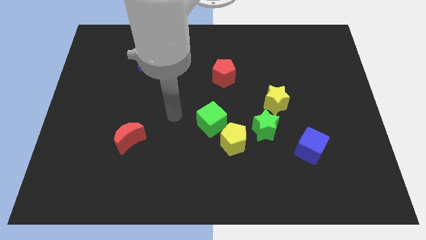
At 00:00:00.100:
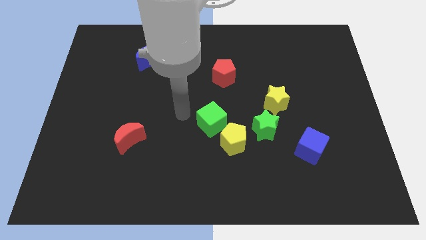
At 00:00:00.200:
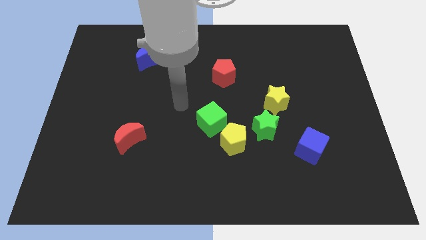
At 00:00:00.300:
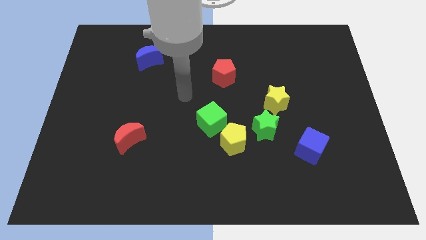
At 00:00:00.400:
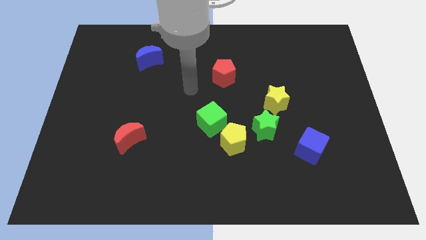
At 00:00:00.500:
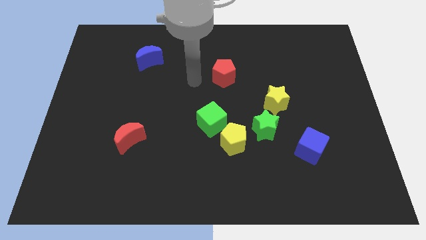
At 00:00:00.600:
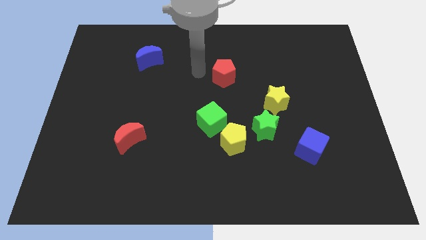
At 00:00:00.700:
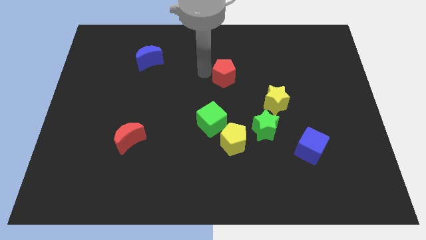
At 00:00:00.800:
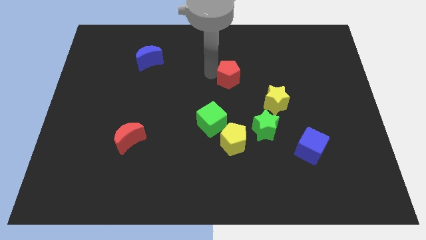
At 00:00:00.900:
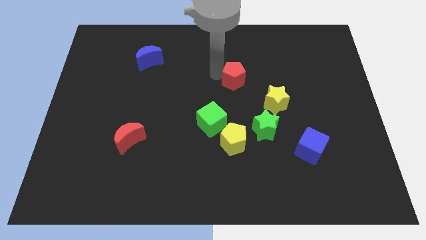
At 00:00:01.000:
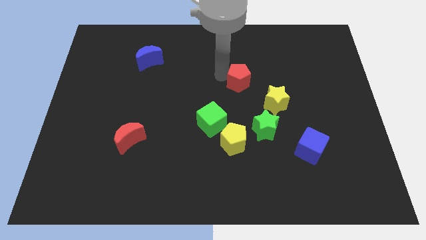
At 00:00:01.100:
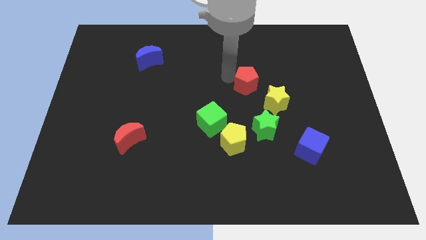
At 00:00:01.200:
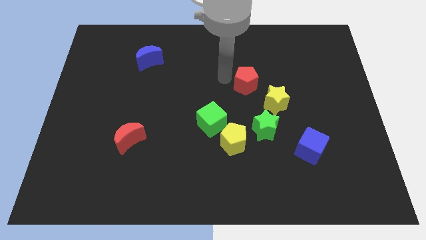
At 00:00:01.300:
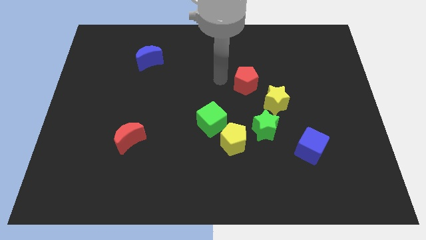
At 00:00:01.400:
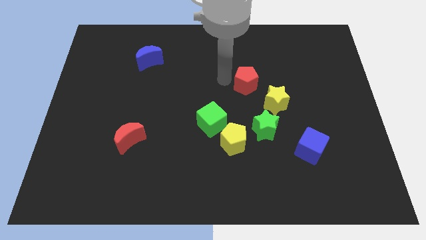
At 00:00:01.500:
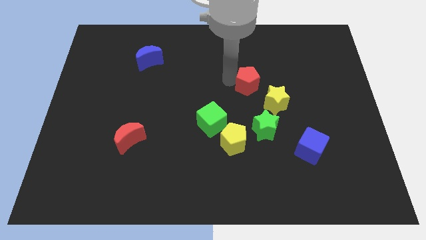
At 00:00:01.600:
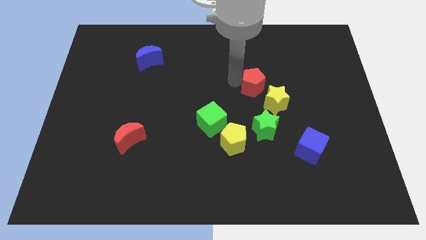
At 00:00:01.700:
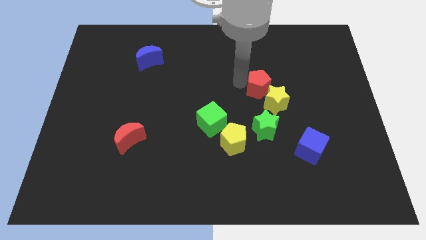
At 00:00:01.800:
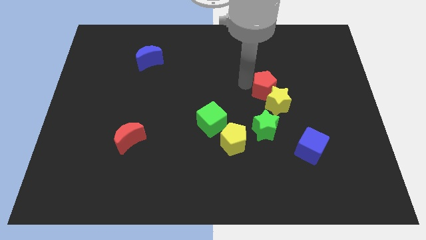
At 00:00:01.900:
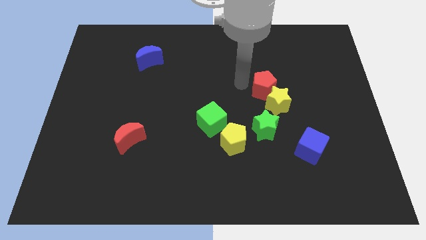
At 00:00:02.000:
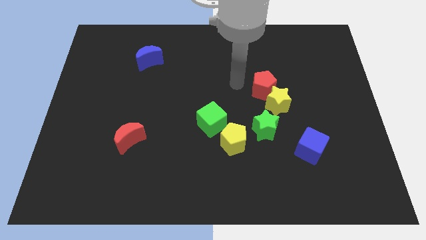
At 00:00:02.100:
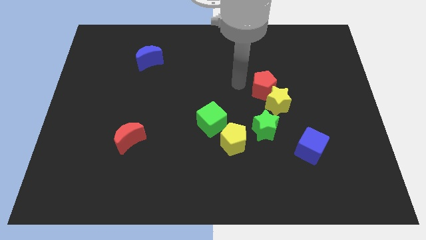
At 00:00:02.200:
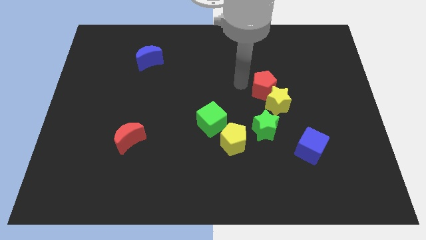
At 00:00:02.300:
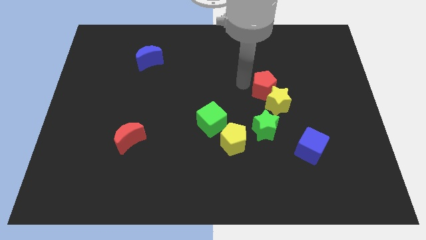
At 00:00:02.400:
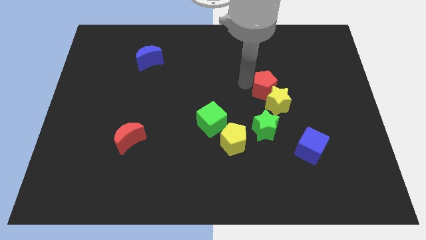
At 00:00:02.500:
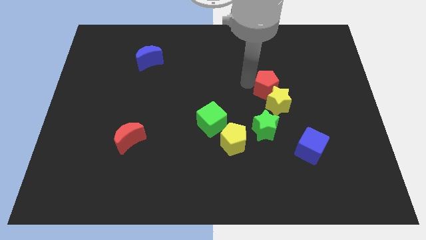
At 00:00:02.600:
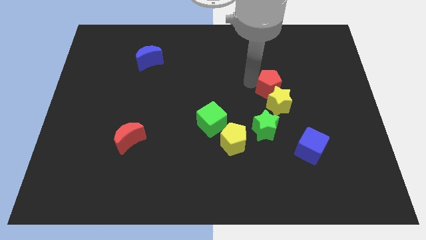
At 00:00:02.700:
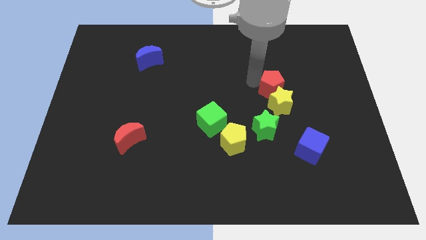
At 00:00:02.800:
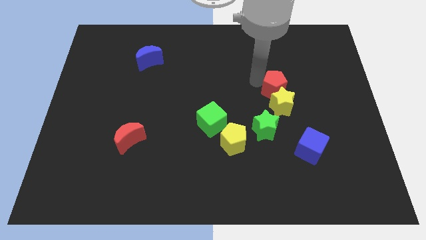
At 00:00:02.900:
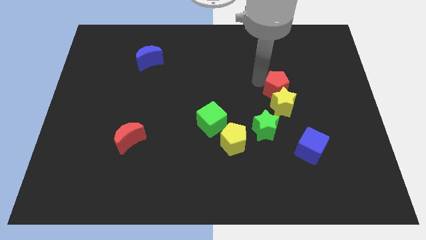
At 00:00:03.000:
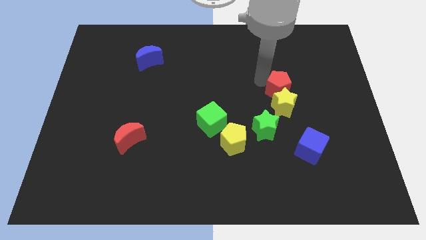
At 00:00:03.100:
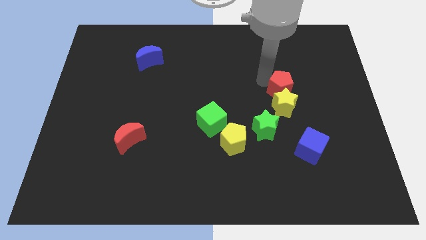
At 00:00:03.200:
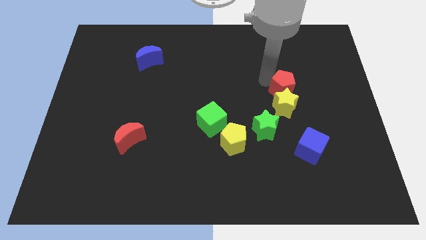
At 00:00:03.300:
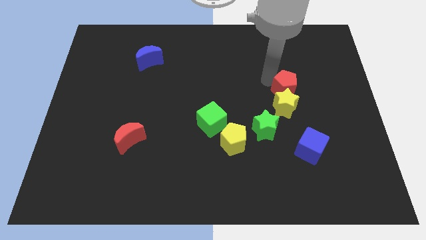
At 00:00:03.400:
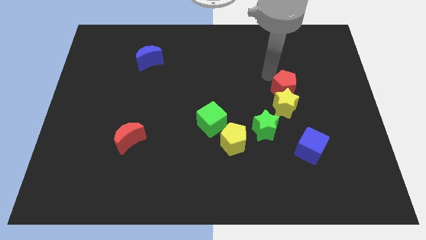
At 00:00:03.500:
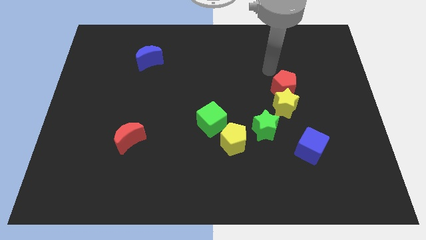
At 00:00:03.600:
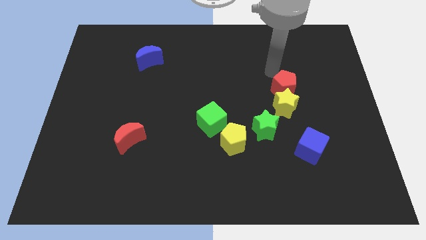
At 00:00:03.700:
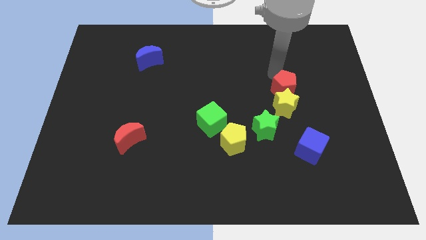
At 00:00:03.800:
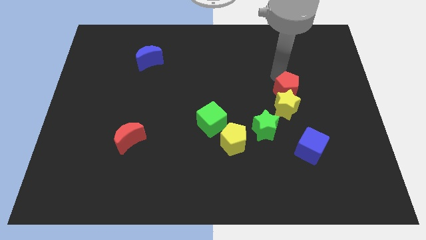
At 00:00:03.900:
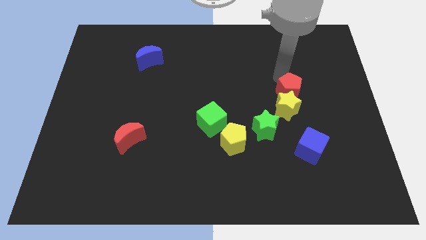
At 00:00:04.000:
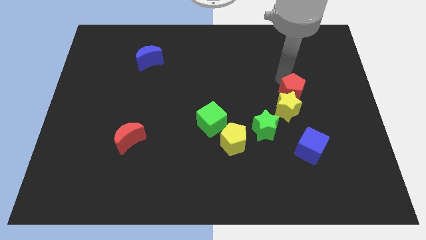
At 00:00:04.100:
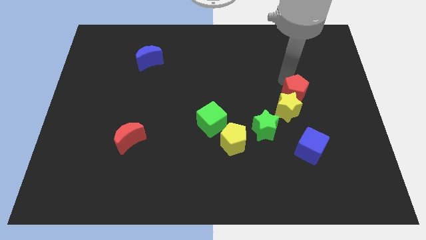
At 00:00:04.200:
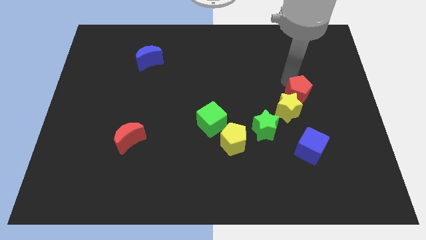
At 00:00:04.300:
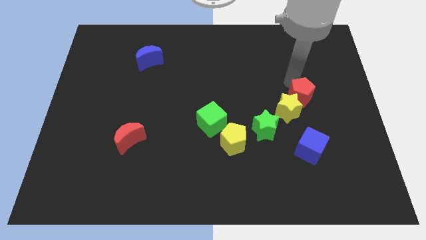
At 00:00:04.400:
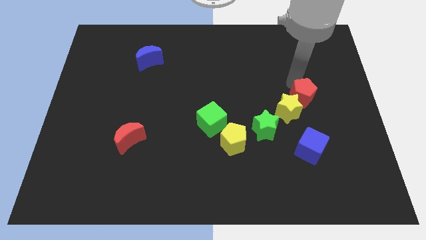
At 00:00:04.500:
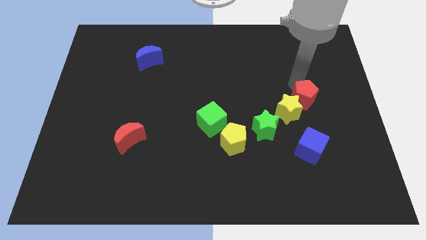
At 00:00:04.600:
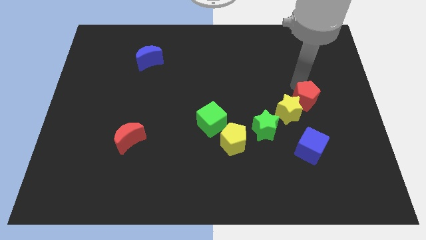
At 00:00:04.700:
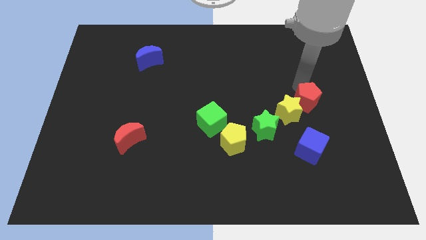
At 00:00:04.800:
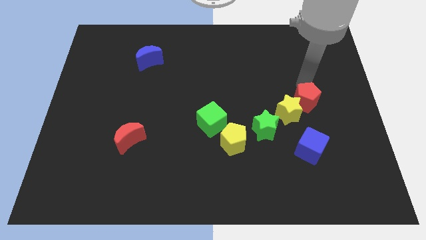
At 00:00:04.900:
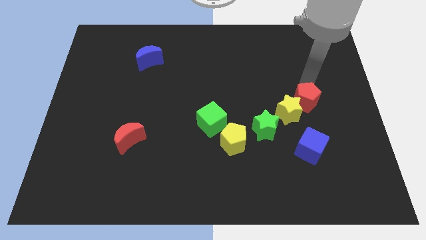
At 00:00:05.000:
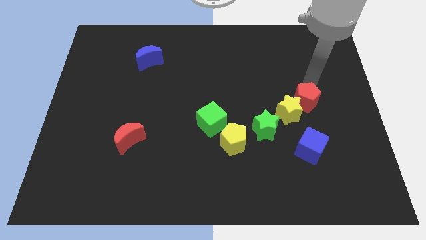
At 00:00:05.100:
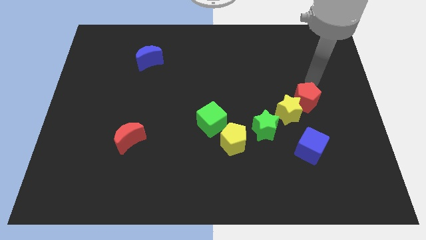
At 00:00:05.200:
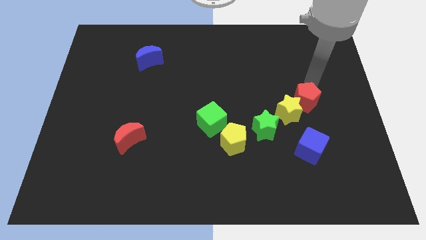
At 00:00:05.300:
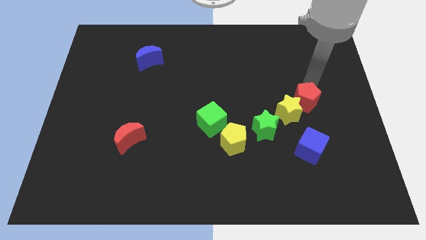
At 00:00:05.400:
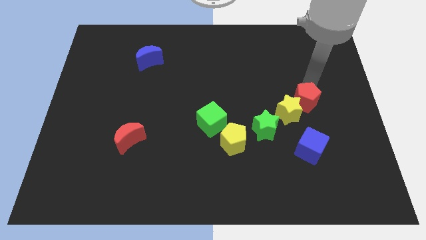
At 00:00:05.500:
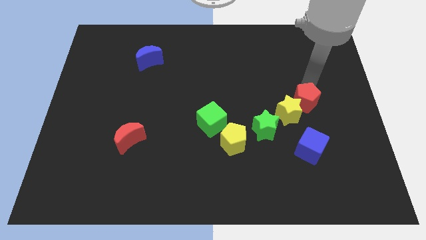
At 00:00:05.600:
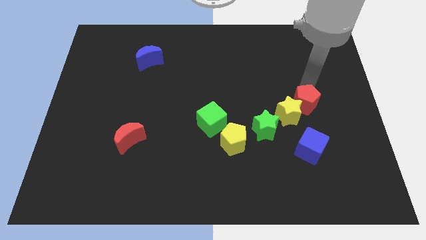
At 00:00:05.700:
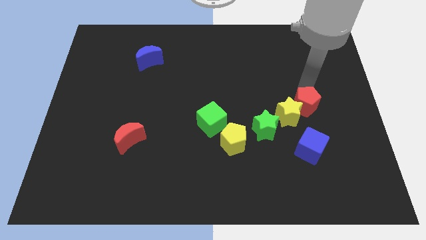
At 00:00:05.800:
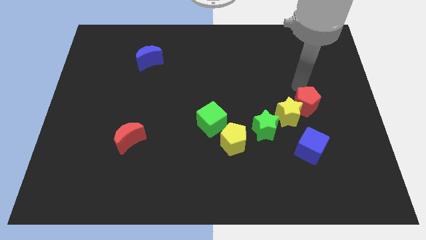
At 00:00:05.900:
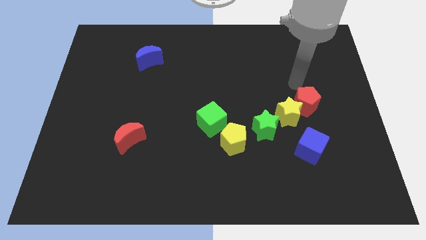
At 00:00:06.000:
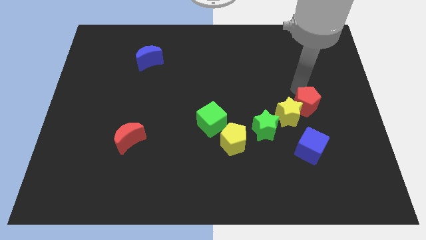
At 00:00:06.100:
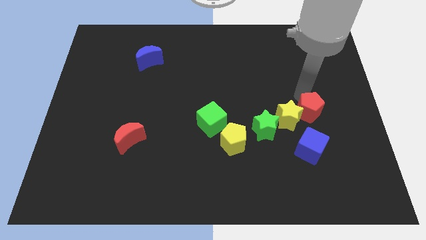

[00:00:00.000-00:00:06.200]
slide the red pentagon downwards and then right

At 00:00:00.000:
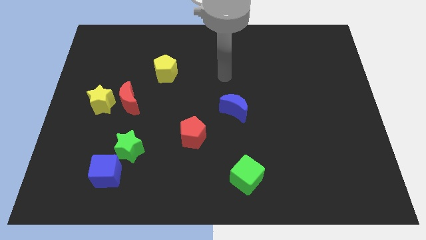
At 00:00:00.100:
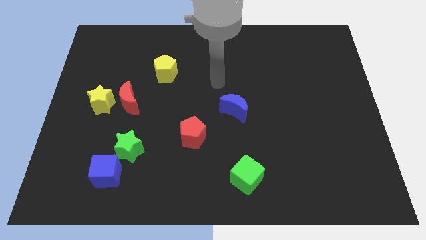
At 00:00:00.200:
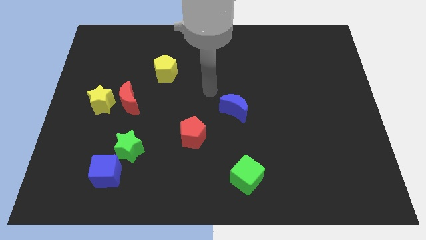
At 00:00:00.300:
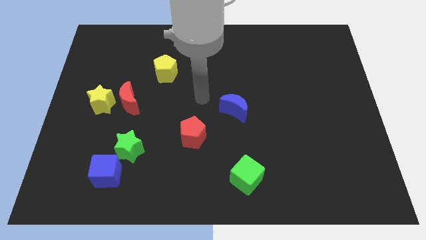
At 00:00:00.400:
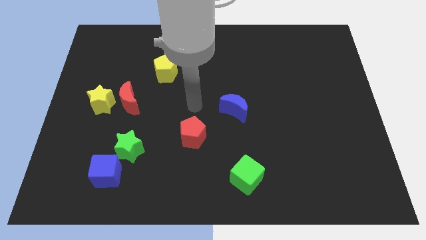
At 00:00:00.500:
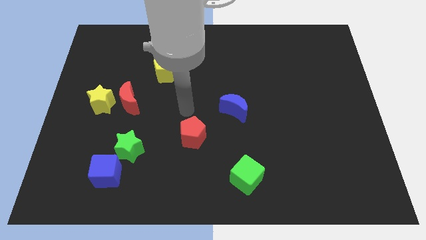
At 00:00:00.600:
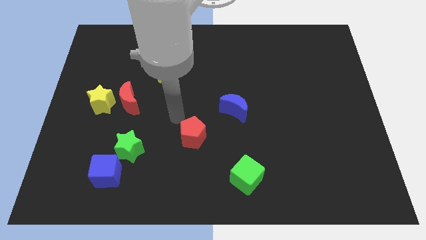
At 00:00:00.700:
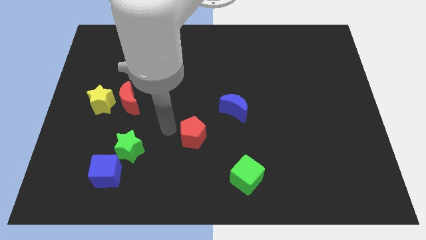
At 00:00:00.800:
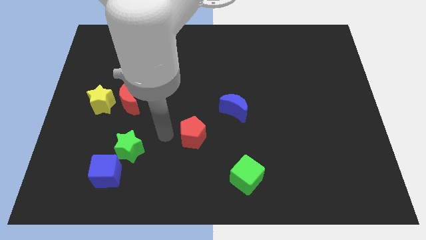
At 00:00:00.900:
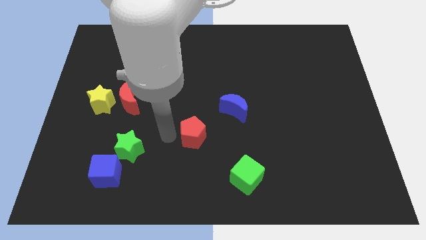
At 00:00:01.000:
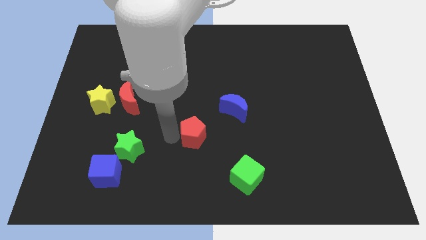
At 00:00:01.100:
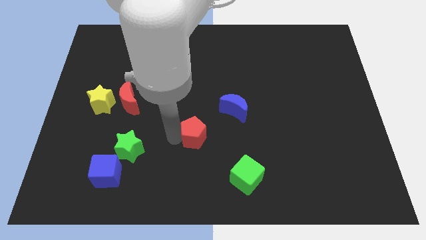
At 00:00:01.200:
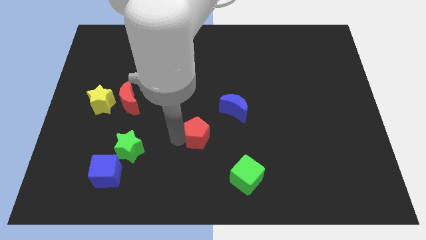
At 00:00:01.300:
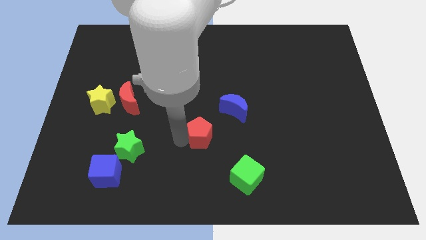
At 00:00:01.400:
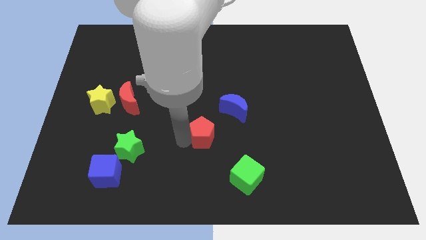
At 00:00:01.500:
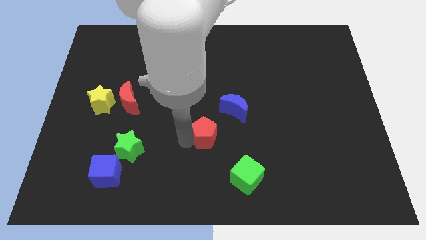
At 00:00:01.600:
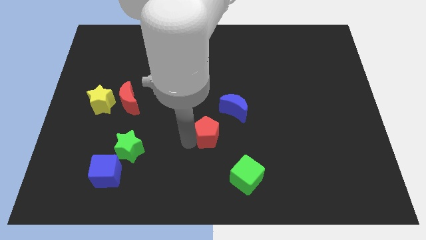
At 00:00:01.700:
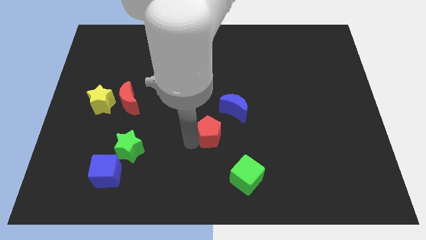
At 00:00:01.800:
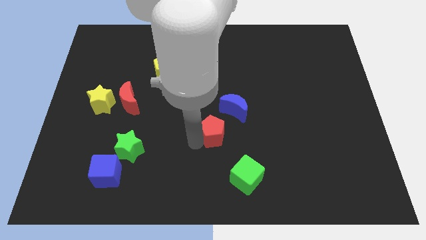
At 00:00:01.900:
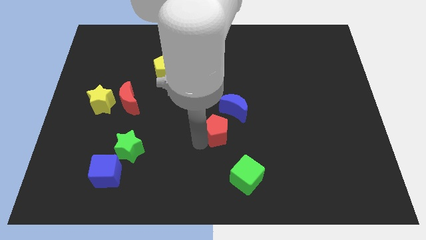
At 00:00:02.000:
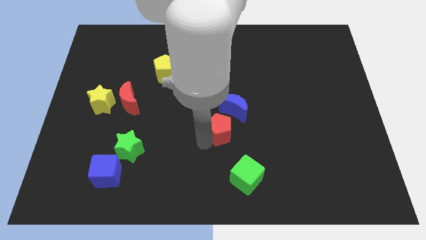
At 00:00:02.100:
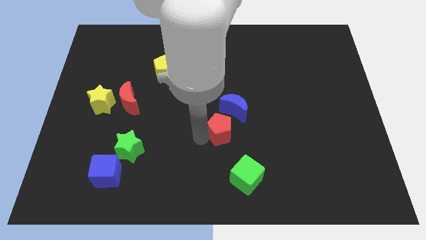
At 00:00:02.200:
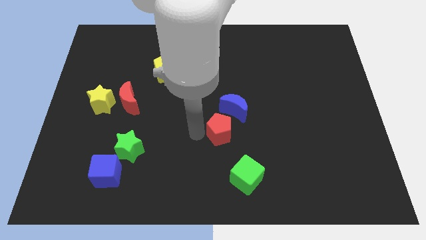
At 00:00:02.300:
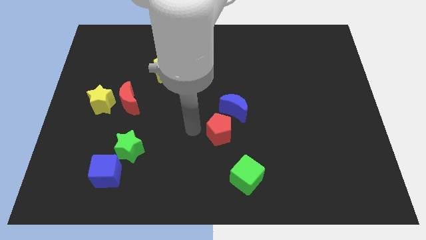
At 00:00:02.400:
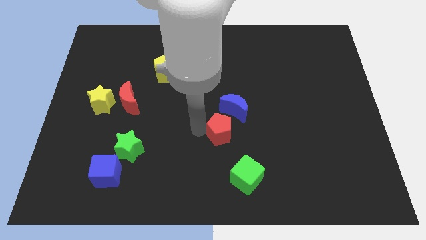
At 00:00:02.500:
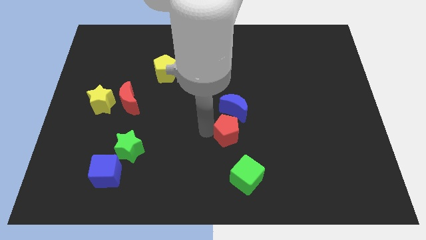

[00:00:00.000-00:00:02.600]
slightly move the red pentagon to the right
